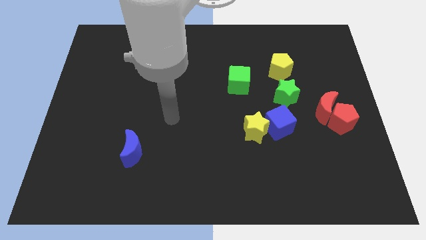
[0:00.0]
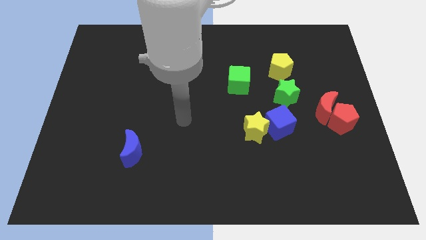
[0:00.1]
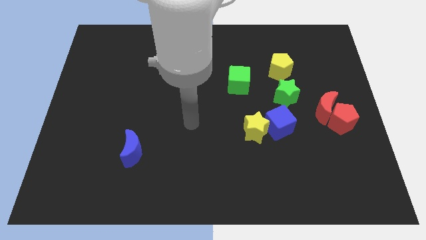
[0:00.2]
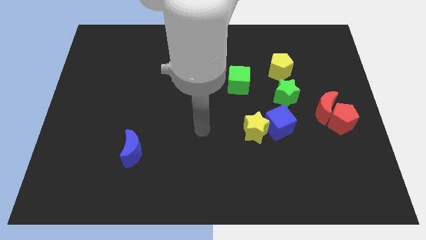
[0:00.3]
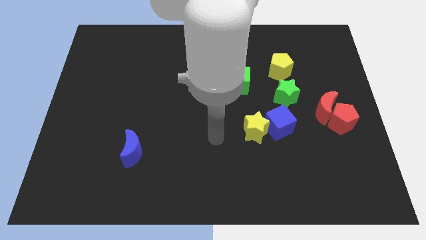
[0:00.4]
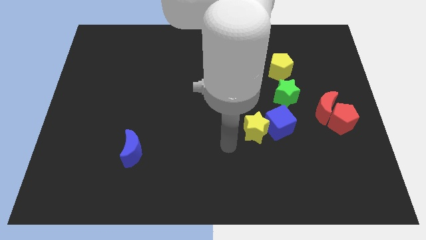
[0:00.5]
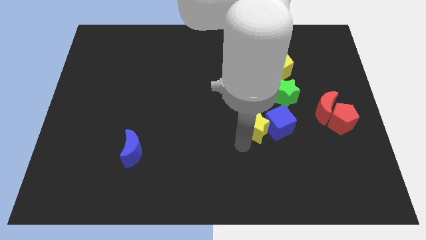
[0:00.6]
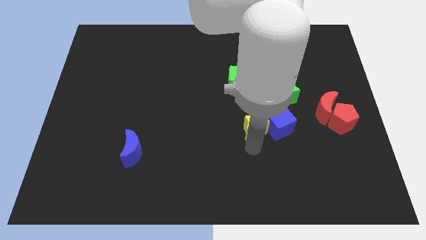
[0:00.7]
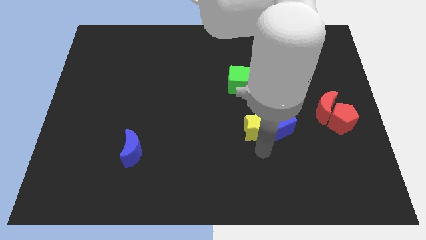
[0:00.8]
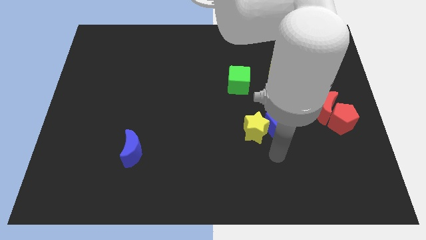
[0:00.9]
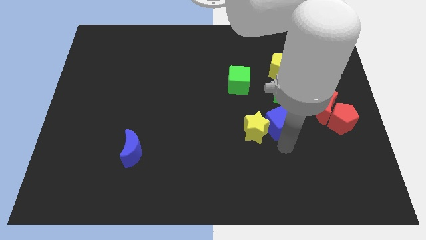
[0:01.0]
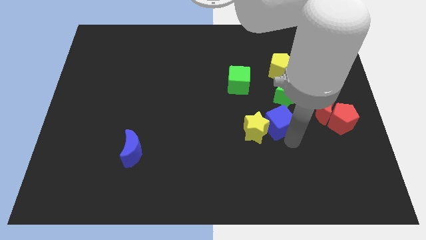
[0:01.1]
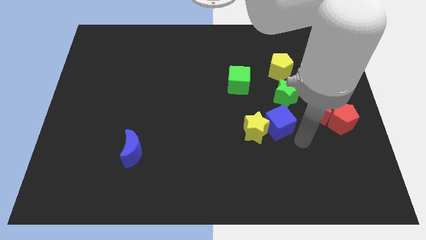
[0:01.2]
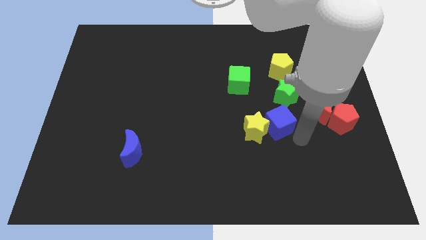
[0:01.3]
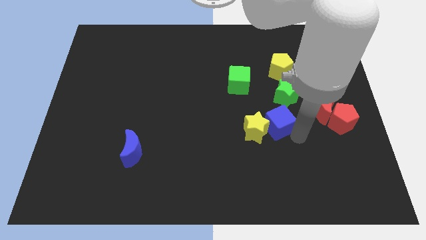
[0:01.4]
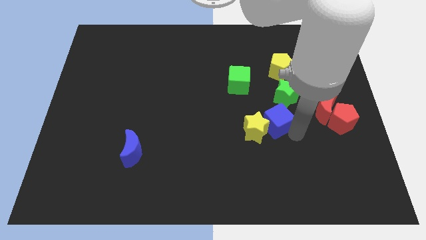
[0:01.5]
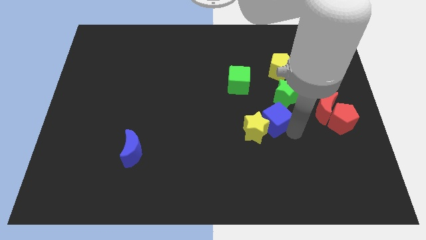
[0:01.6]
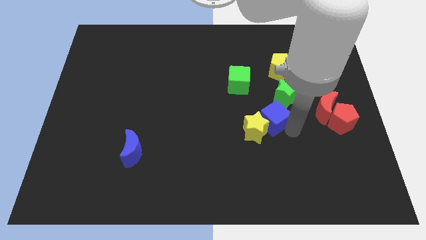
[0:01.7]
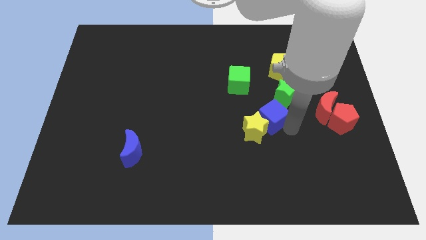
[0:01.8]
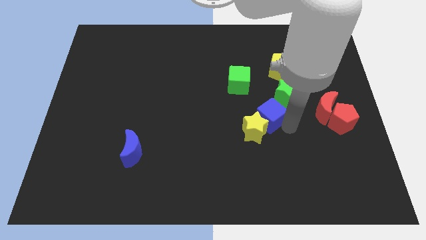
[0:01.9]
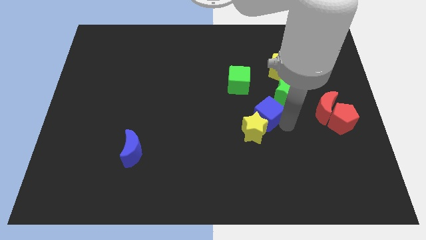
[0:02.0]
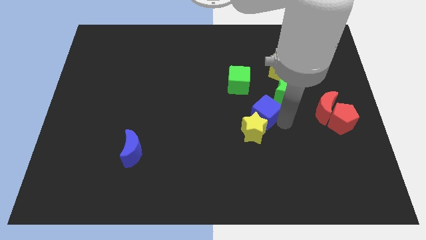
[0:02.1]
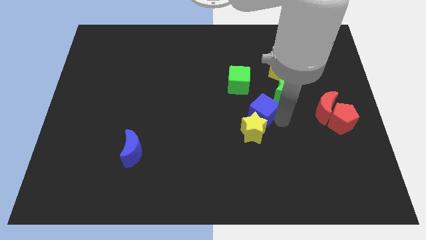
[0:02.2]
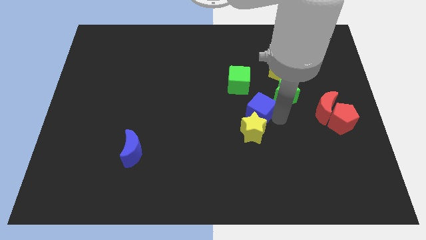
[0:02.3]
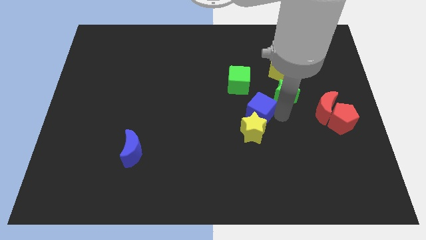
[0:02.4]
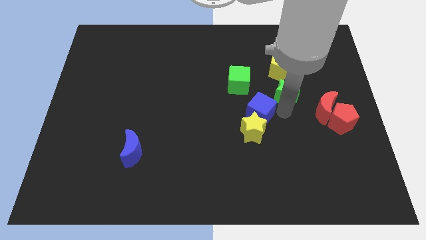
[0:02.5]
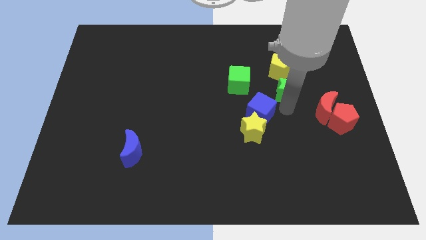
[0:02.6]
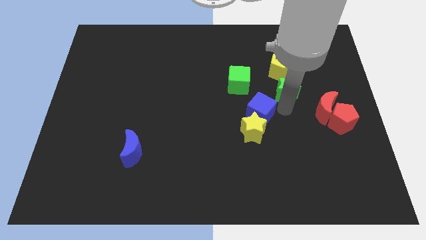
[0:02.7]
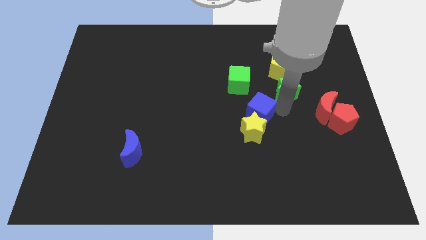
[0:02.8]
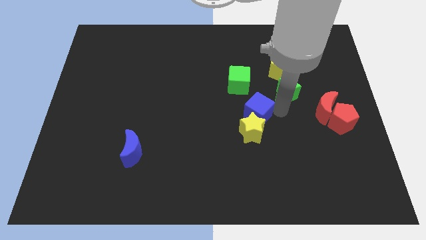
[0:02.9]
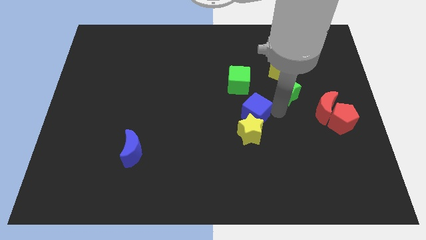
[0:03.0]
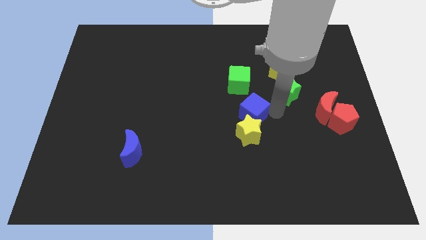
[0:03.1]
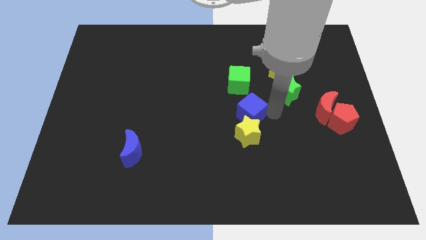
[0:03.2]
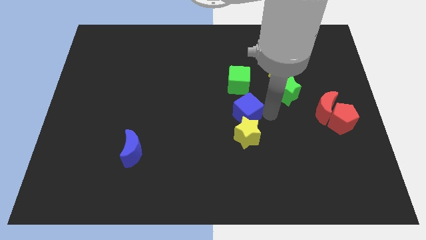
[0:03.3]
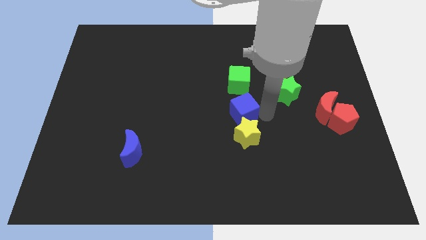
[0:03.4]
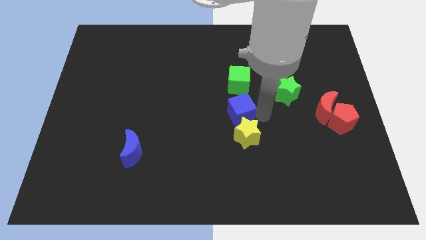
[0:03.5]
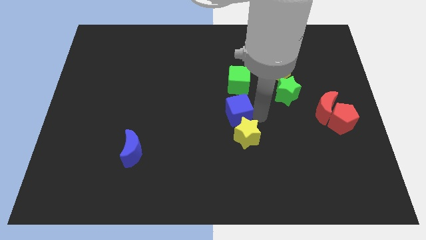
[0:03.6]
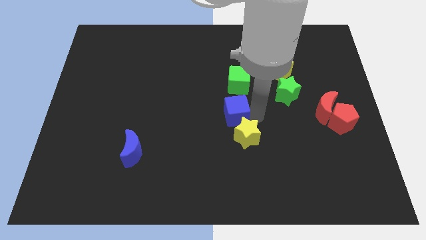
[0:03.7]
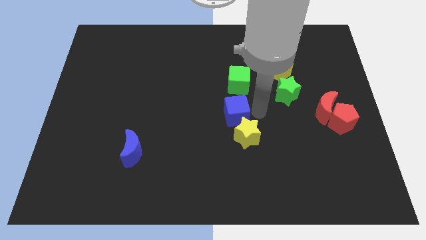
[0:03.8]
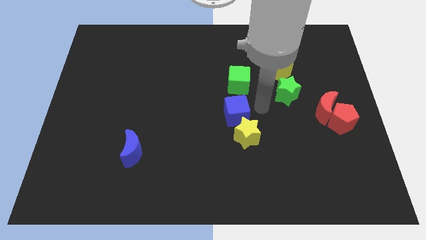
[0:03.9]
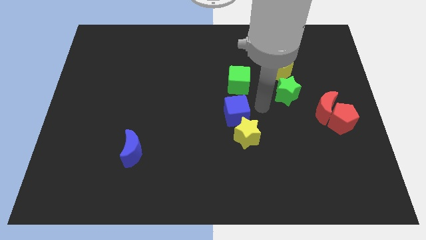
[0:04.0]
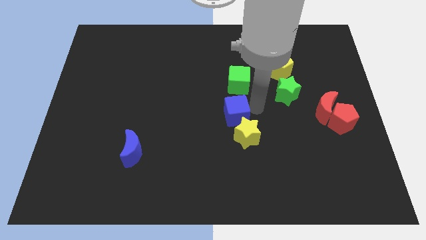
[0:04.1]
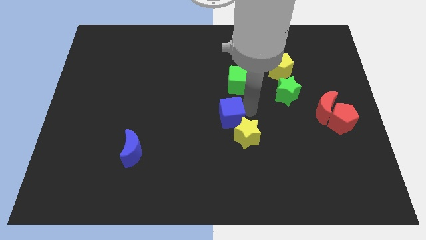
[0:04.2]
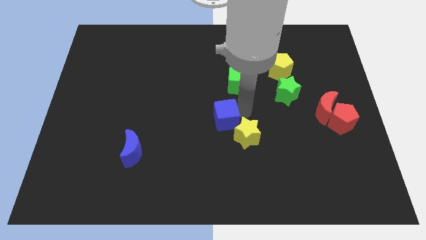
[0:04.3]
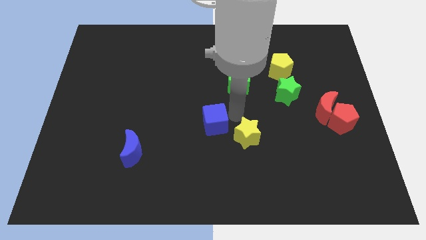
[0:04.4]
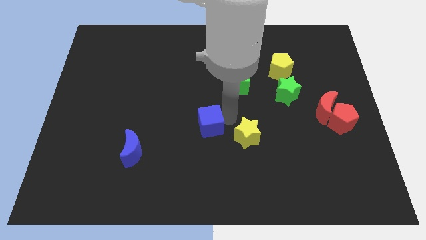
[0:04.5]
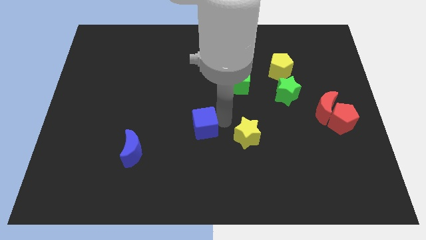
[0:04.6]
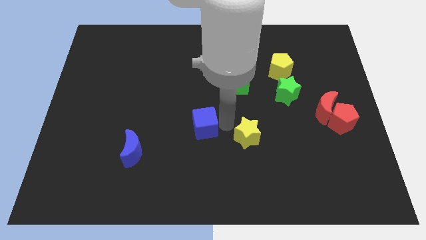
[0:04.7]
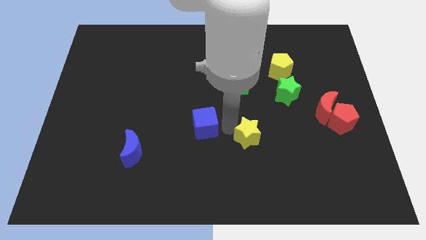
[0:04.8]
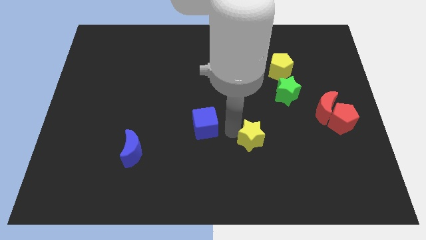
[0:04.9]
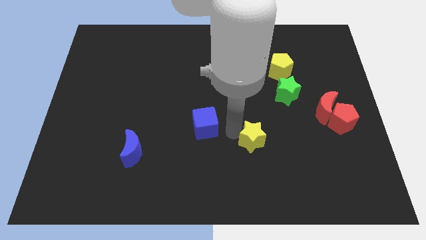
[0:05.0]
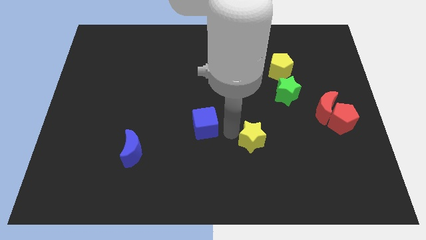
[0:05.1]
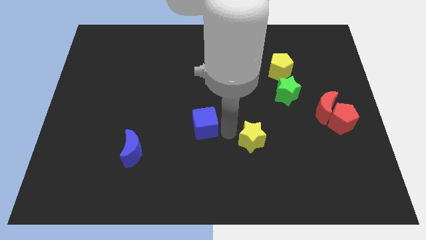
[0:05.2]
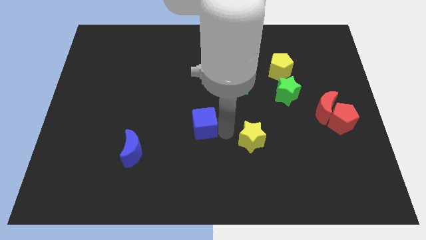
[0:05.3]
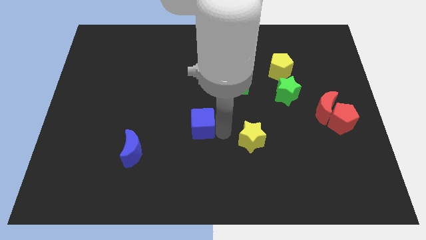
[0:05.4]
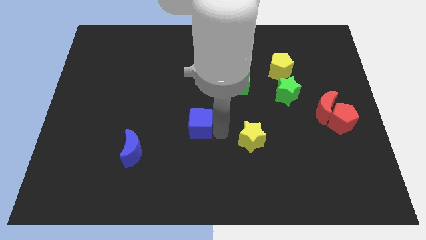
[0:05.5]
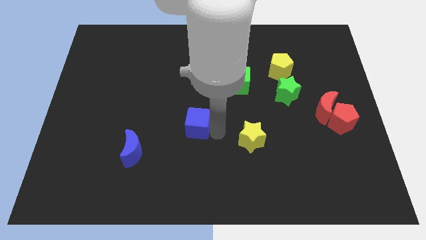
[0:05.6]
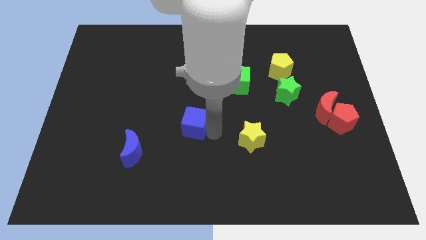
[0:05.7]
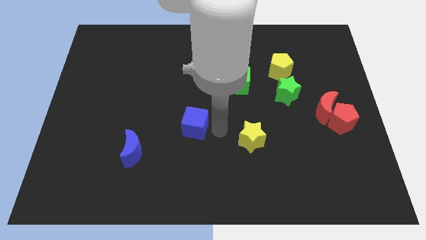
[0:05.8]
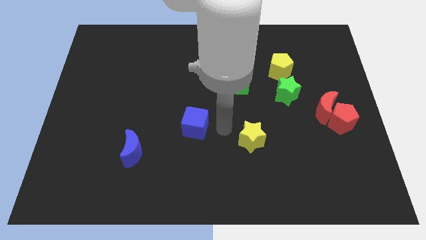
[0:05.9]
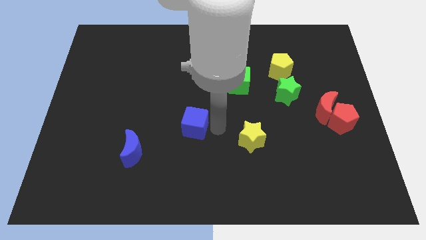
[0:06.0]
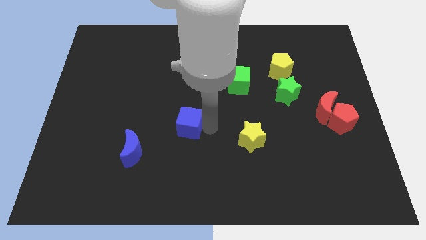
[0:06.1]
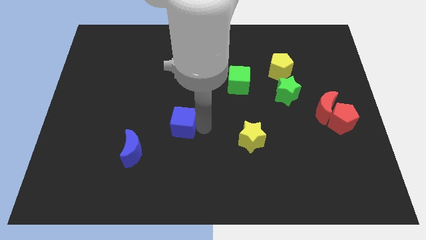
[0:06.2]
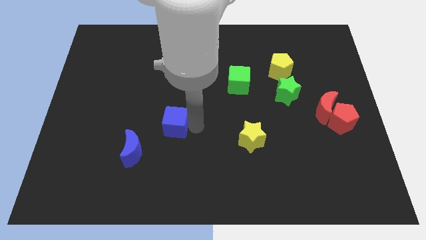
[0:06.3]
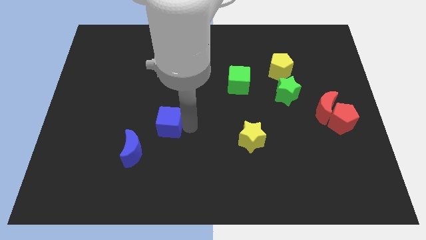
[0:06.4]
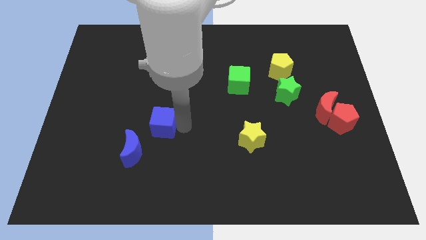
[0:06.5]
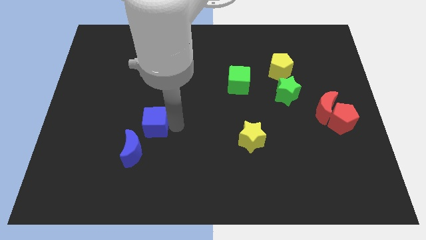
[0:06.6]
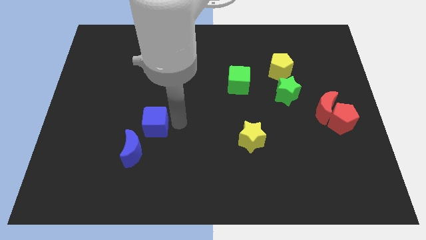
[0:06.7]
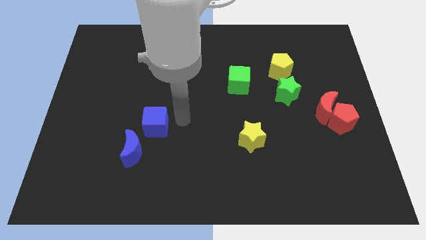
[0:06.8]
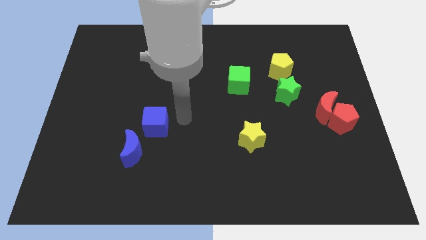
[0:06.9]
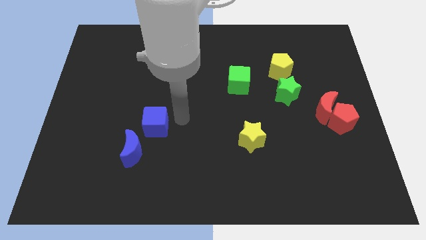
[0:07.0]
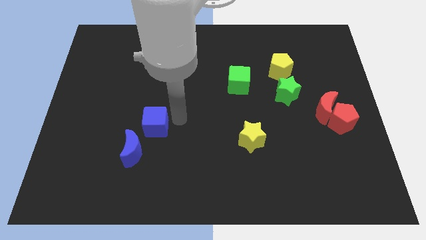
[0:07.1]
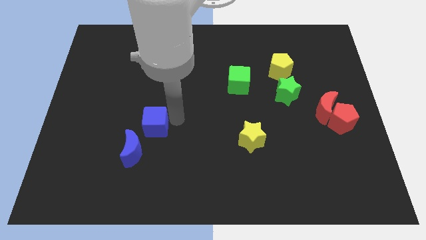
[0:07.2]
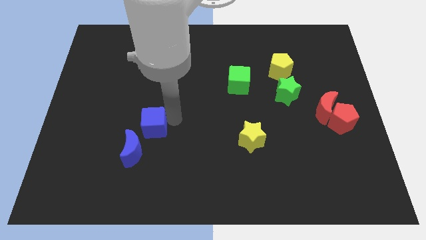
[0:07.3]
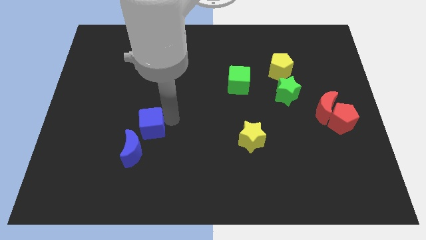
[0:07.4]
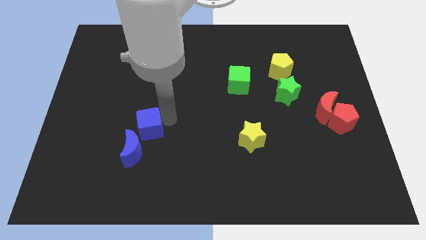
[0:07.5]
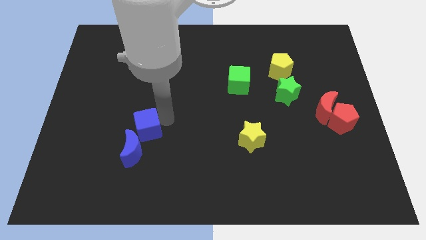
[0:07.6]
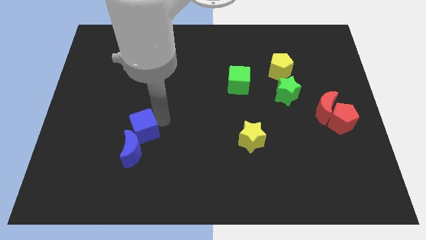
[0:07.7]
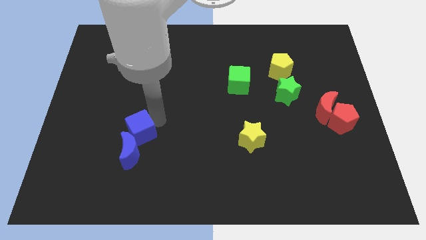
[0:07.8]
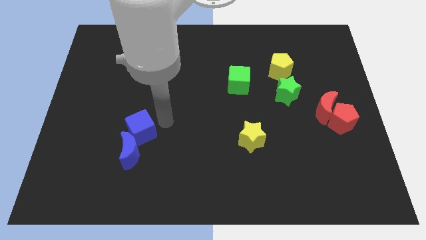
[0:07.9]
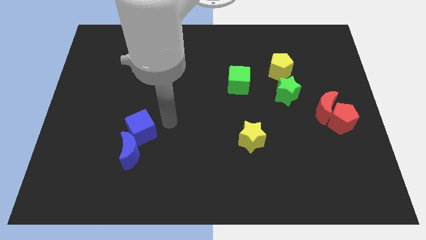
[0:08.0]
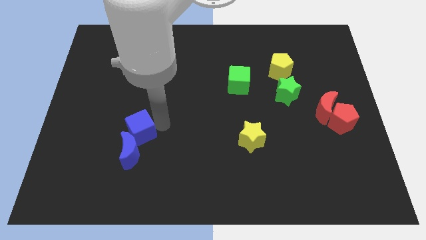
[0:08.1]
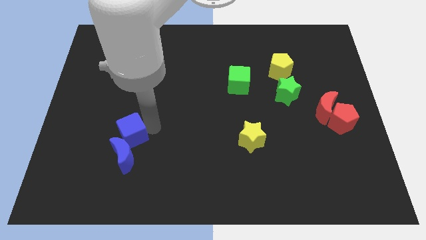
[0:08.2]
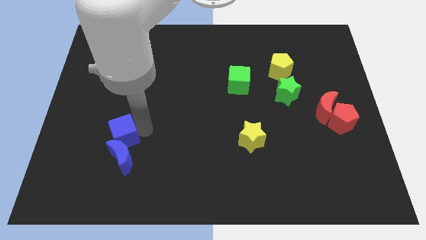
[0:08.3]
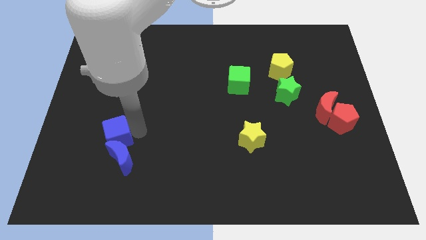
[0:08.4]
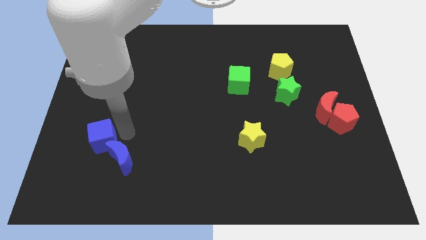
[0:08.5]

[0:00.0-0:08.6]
push the blue cube left of the blue moon
